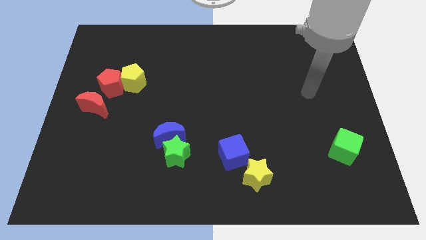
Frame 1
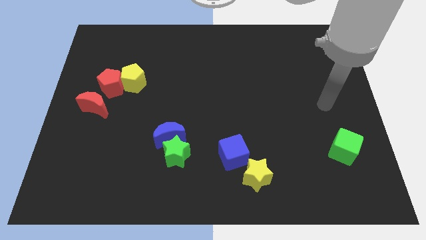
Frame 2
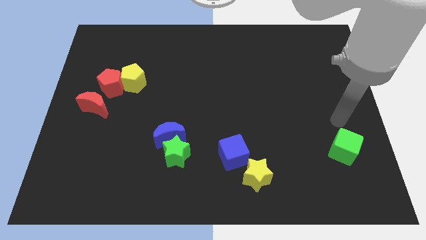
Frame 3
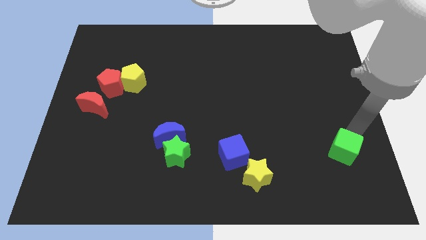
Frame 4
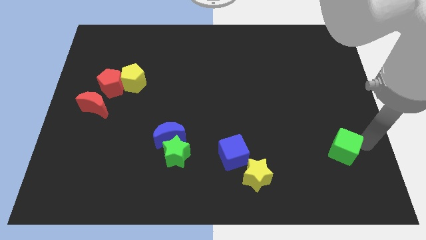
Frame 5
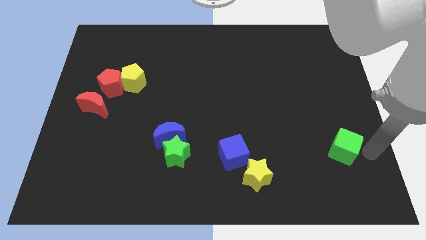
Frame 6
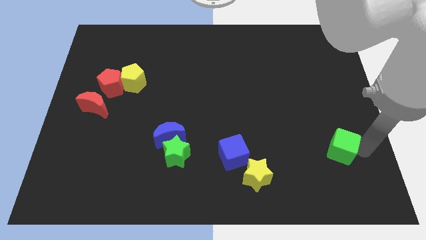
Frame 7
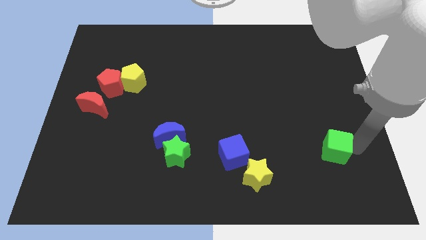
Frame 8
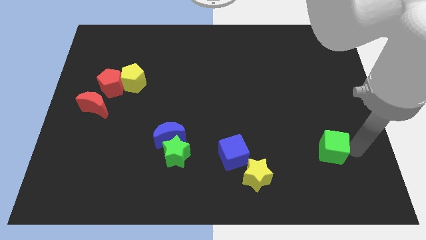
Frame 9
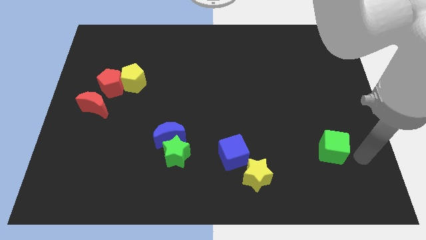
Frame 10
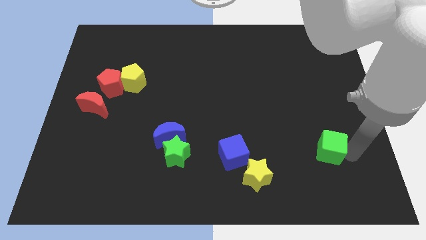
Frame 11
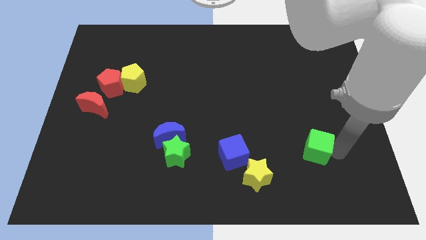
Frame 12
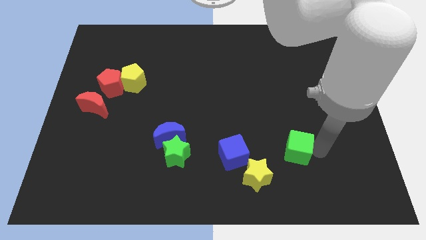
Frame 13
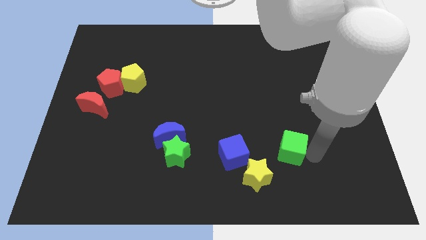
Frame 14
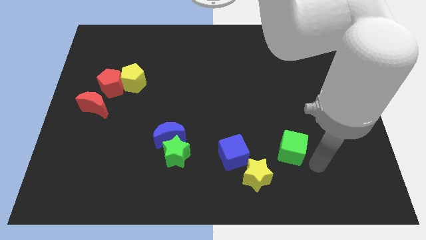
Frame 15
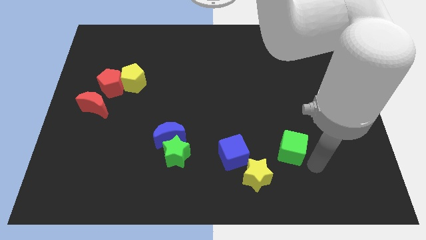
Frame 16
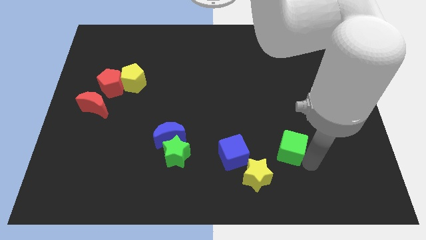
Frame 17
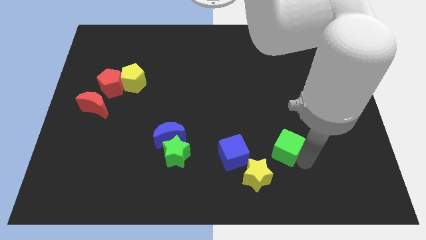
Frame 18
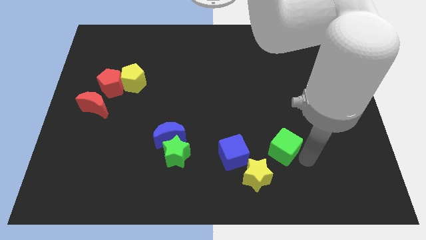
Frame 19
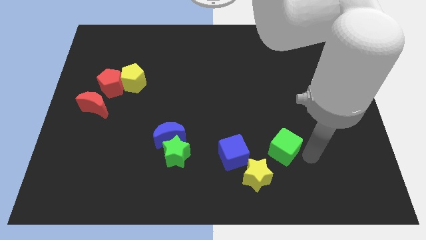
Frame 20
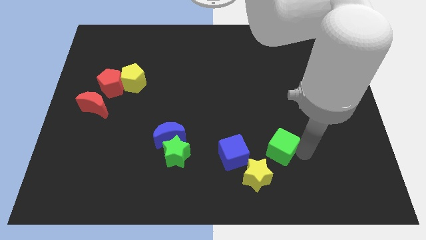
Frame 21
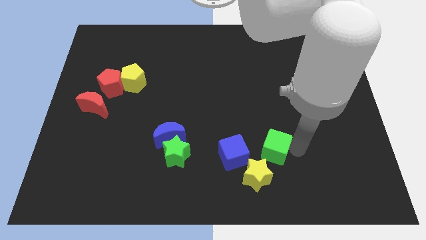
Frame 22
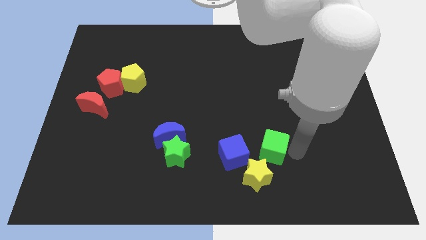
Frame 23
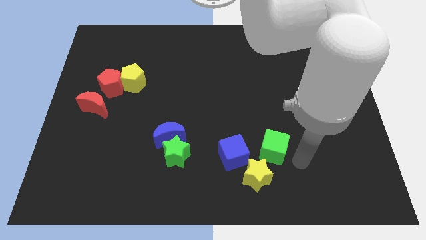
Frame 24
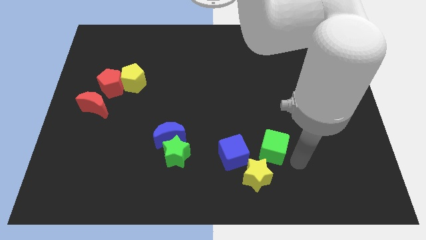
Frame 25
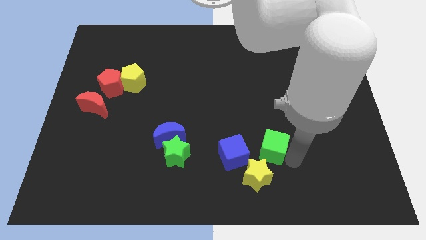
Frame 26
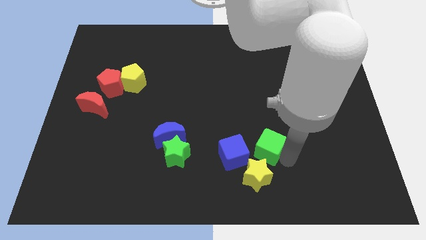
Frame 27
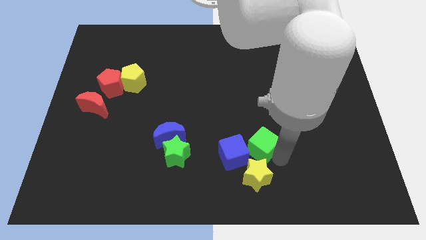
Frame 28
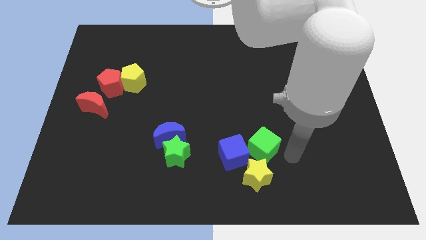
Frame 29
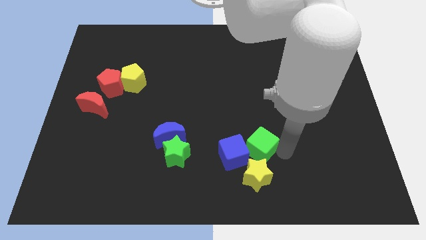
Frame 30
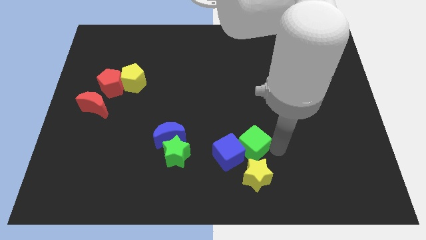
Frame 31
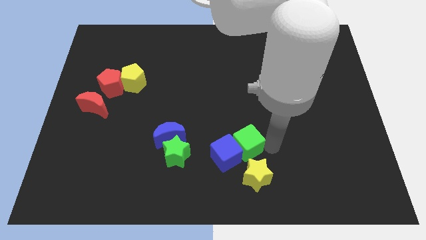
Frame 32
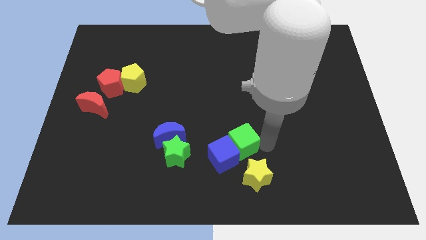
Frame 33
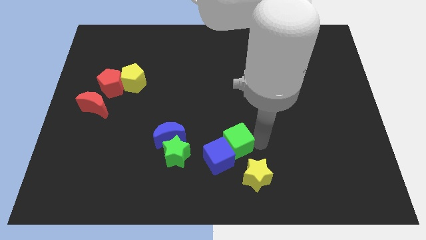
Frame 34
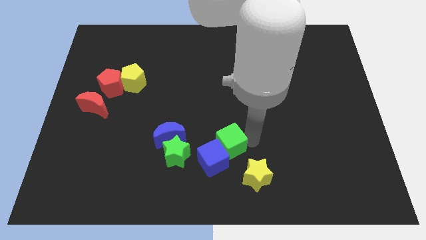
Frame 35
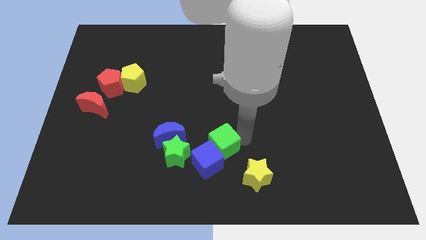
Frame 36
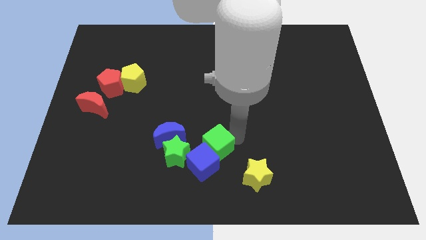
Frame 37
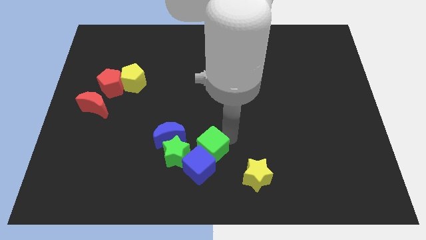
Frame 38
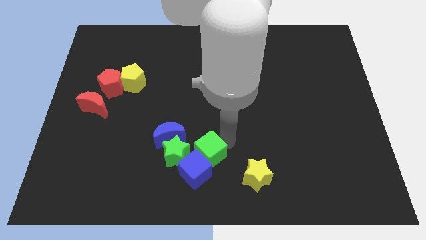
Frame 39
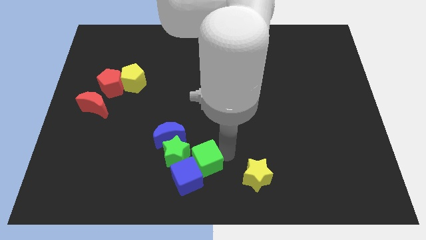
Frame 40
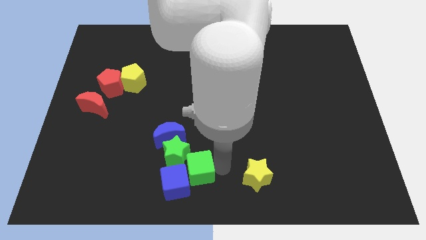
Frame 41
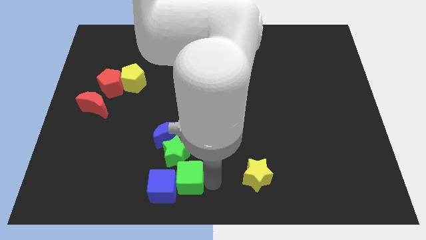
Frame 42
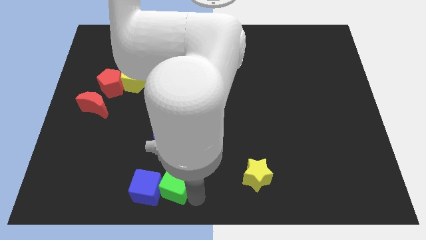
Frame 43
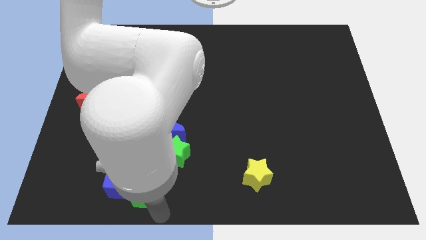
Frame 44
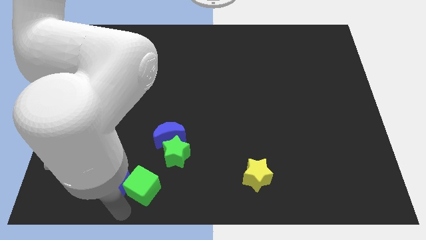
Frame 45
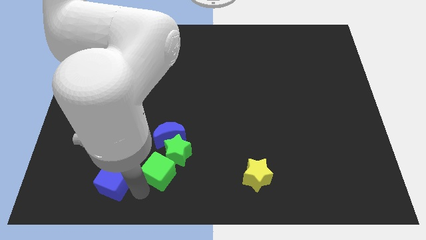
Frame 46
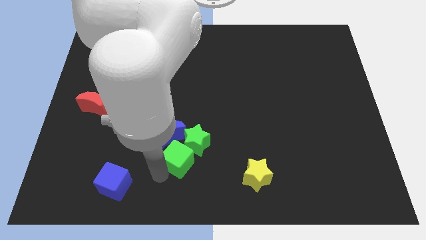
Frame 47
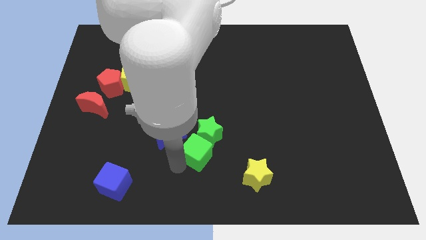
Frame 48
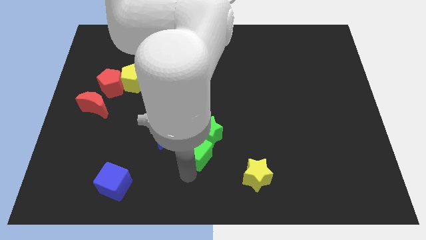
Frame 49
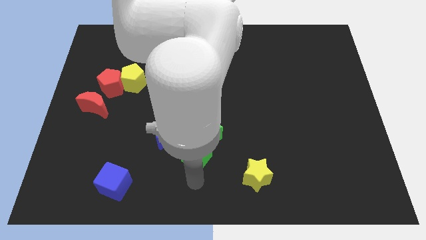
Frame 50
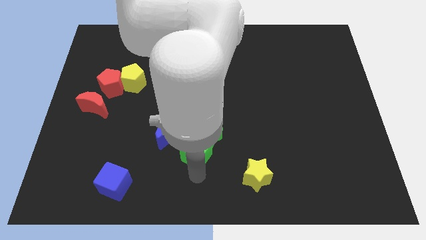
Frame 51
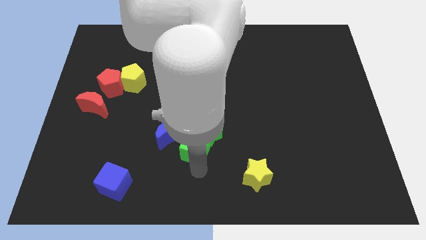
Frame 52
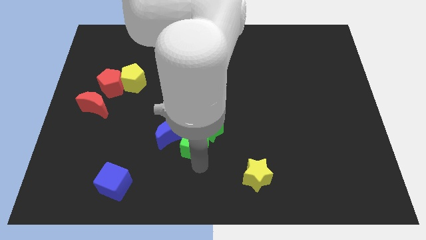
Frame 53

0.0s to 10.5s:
move the green cube next to the blue moon

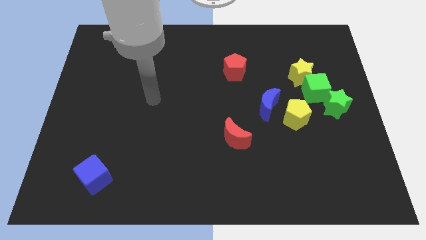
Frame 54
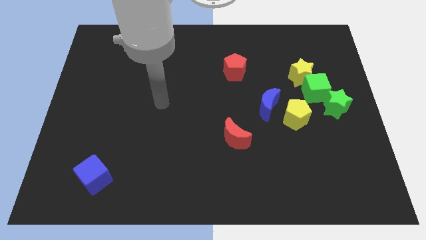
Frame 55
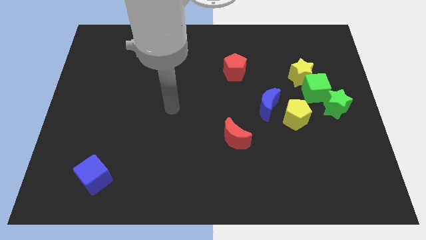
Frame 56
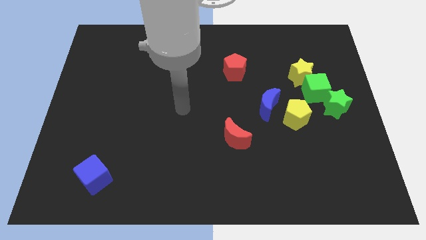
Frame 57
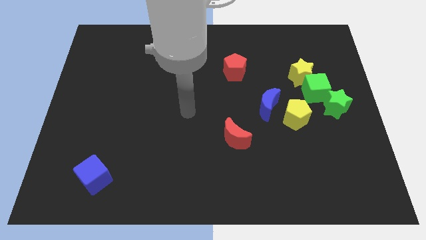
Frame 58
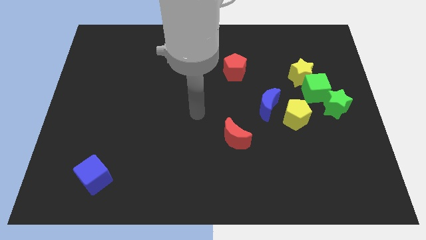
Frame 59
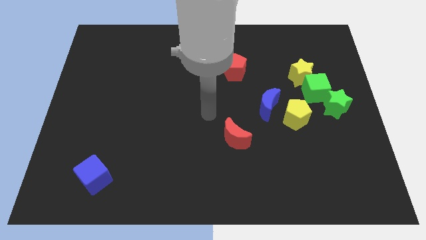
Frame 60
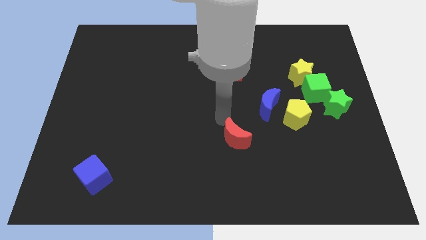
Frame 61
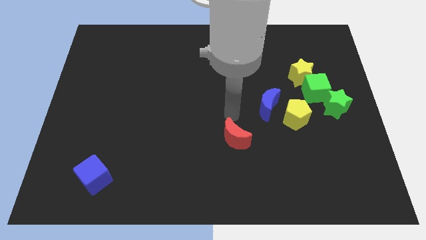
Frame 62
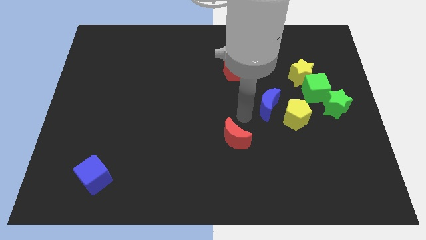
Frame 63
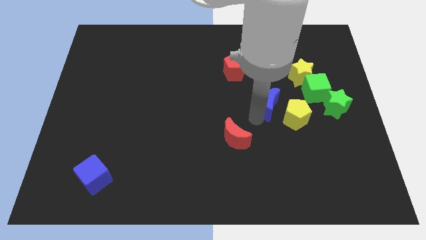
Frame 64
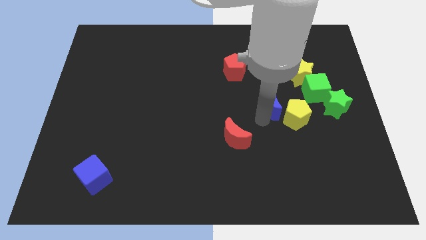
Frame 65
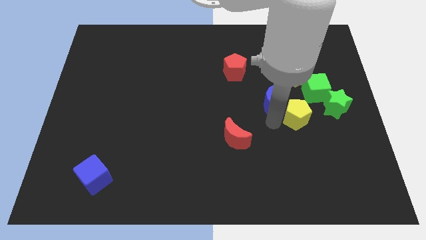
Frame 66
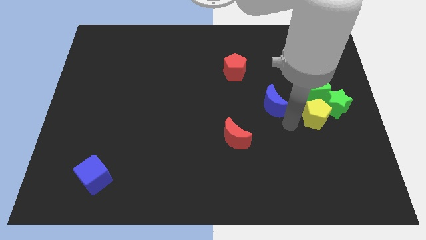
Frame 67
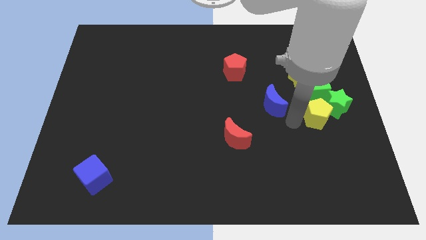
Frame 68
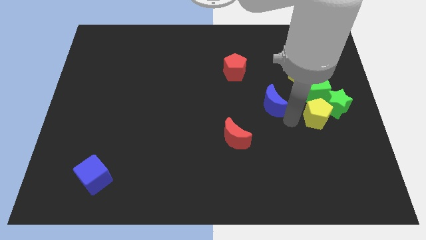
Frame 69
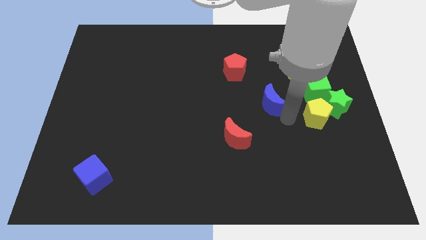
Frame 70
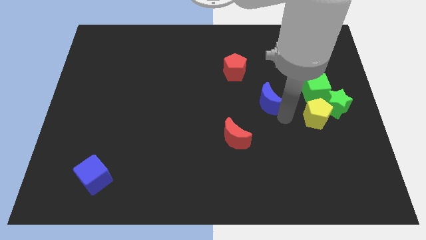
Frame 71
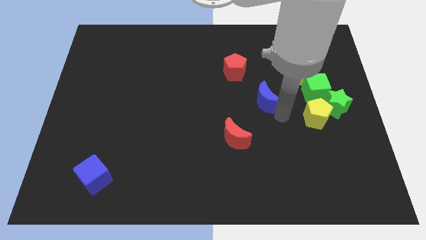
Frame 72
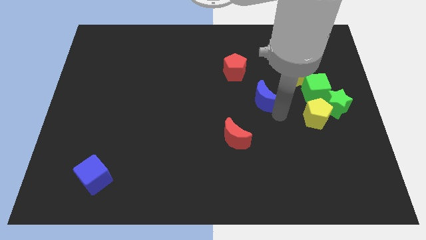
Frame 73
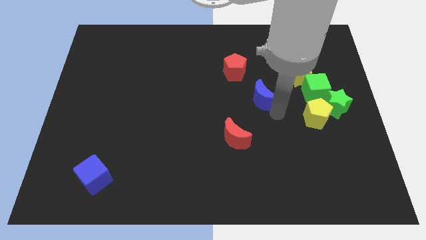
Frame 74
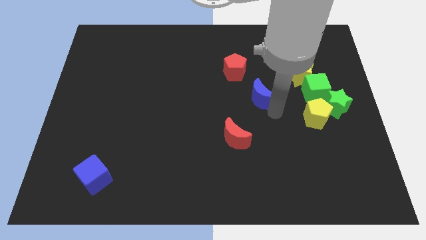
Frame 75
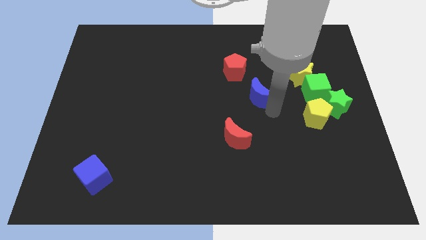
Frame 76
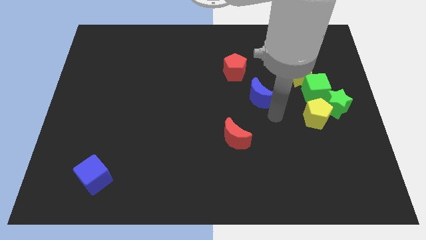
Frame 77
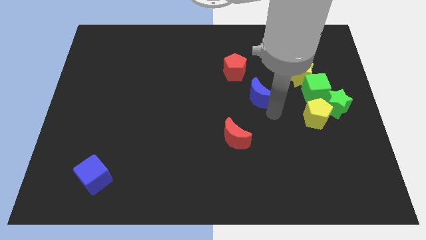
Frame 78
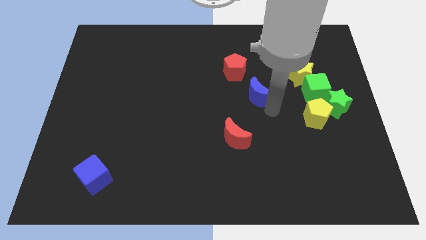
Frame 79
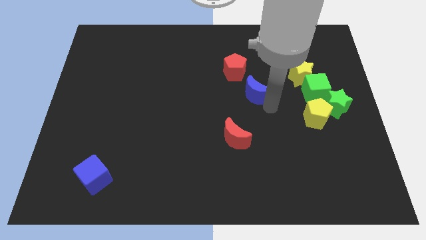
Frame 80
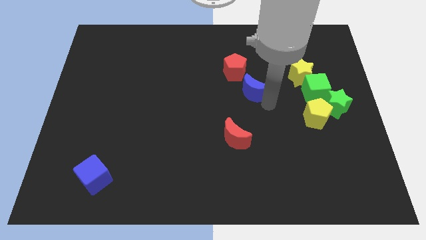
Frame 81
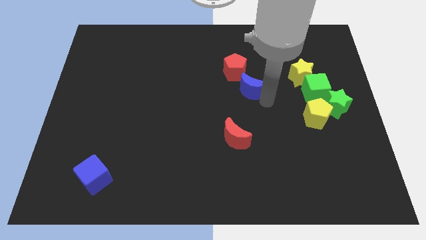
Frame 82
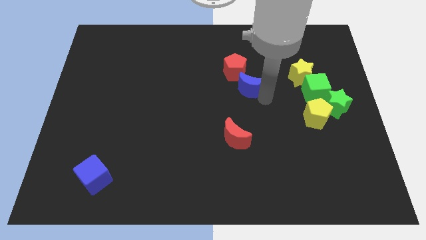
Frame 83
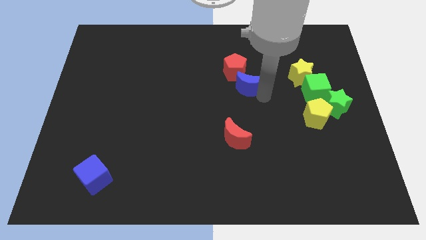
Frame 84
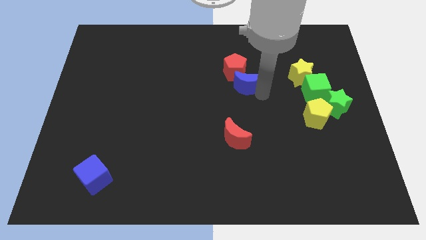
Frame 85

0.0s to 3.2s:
put the blue moon to the red pentagon
